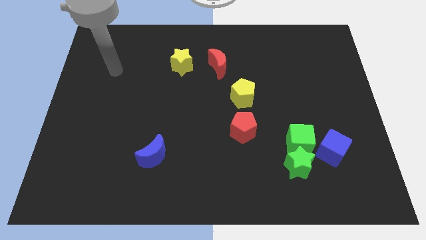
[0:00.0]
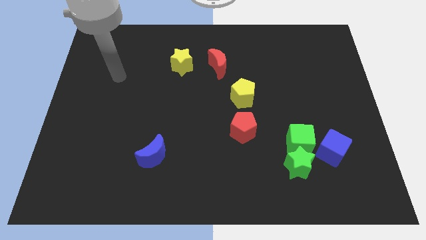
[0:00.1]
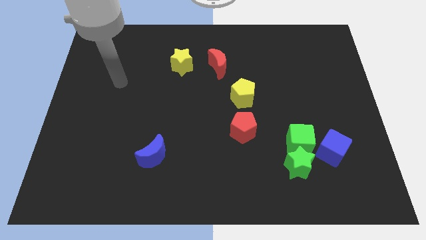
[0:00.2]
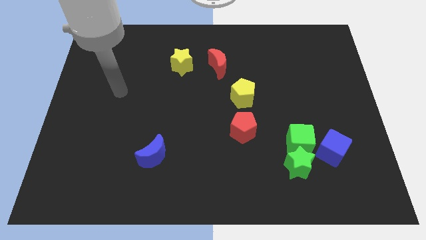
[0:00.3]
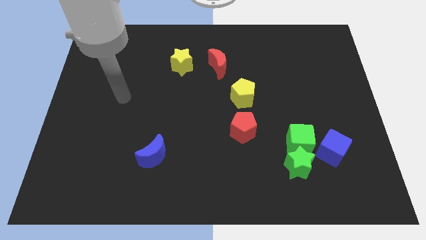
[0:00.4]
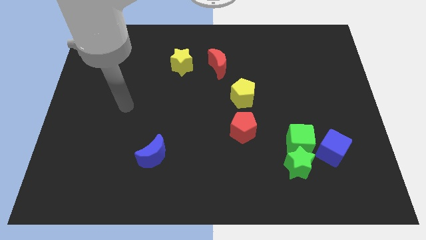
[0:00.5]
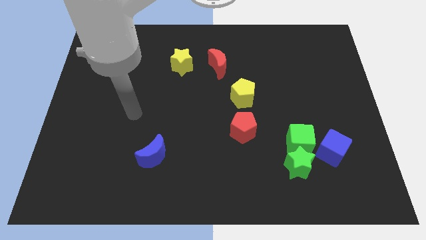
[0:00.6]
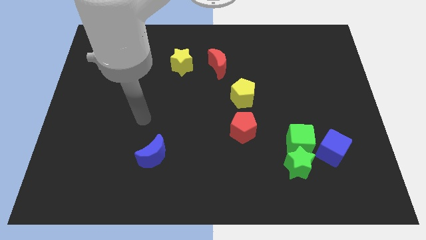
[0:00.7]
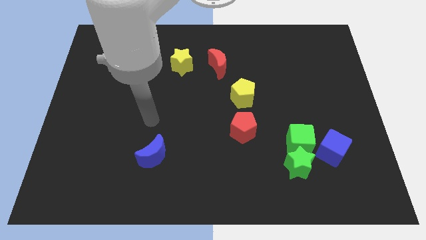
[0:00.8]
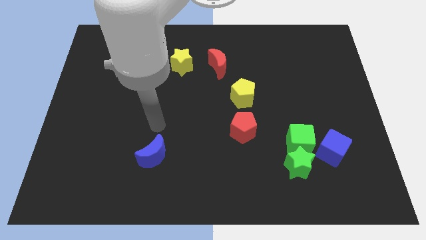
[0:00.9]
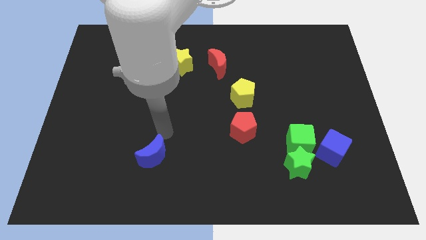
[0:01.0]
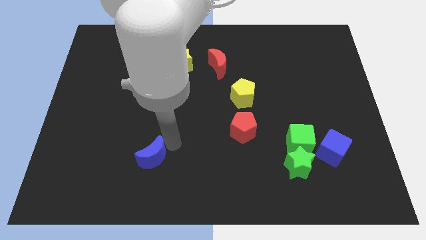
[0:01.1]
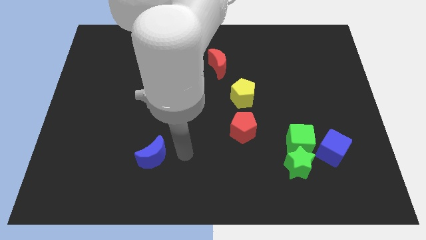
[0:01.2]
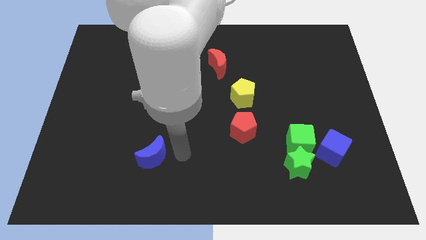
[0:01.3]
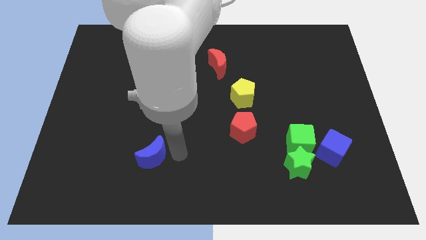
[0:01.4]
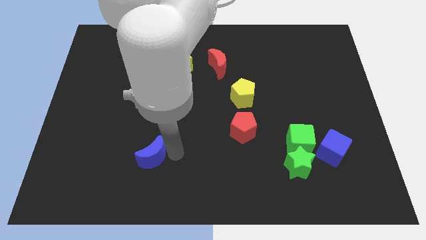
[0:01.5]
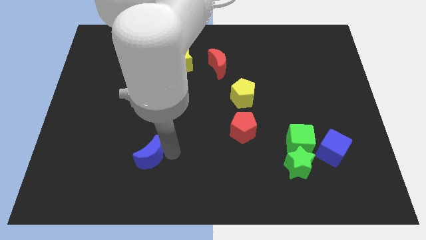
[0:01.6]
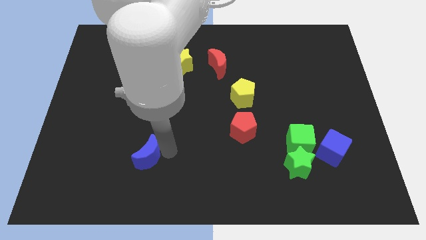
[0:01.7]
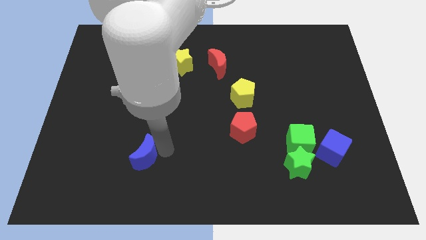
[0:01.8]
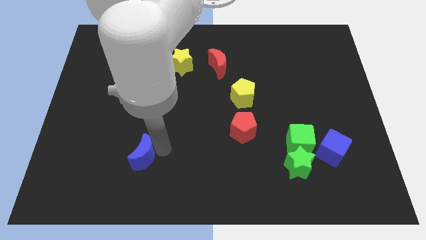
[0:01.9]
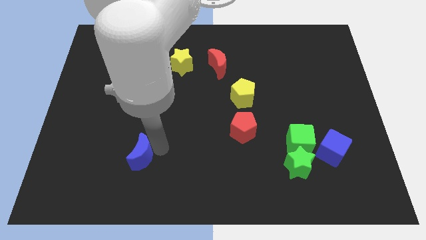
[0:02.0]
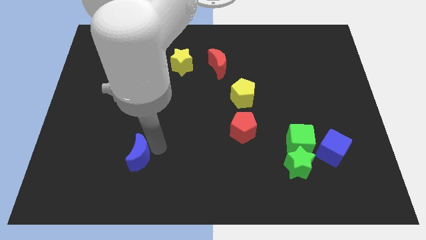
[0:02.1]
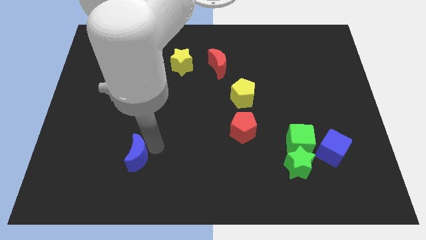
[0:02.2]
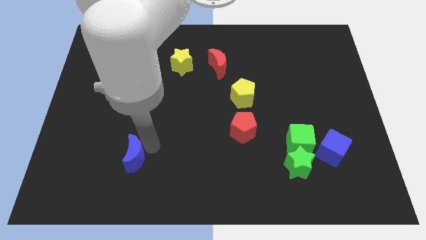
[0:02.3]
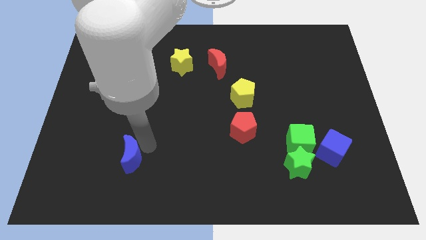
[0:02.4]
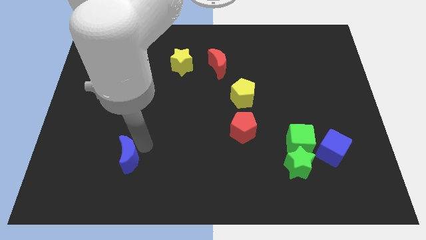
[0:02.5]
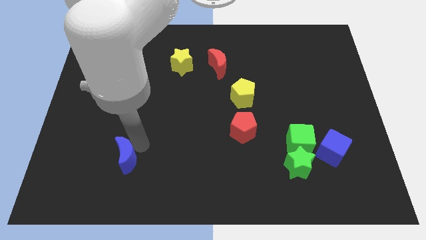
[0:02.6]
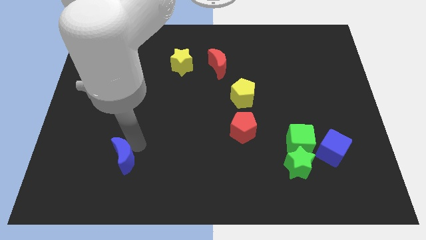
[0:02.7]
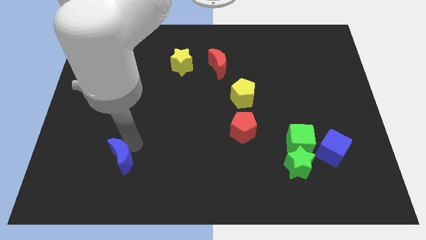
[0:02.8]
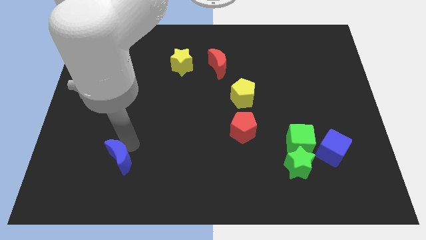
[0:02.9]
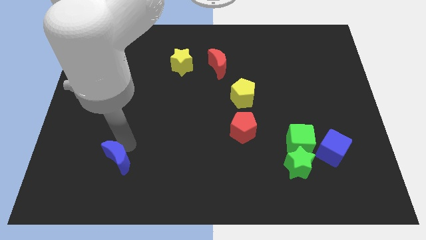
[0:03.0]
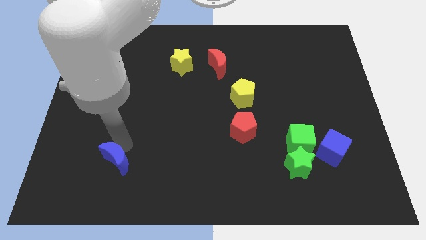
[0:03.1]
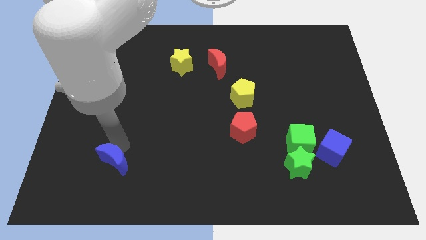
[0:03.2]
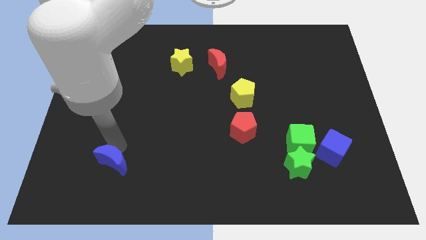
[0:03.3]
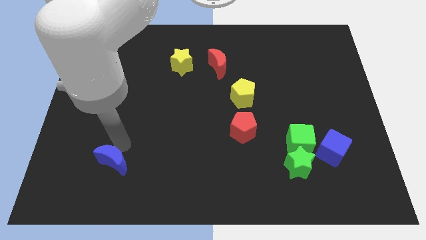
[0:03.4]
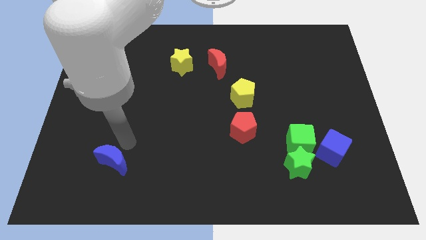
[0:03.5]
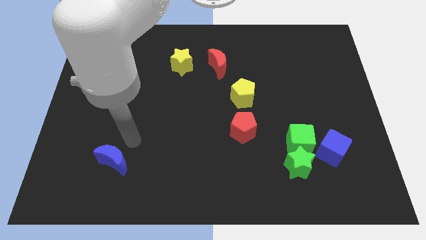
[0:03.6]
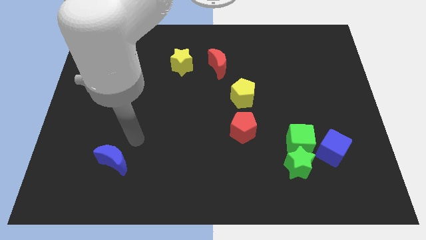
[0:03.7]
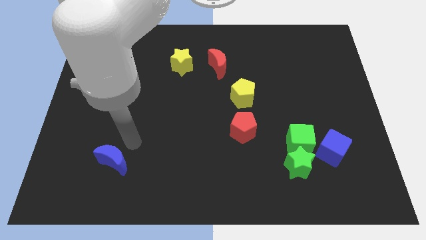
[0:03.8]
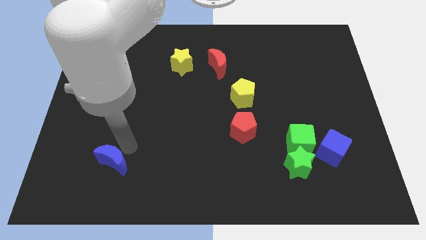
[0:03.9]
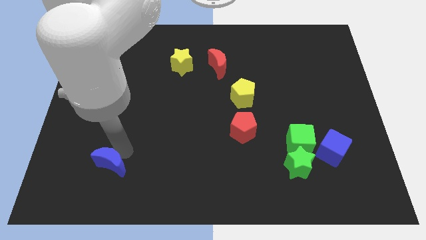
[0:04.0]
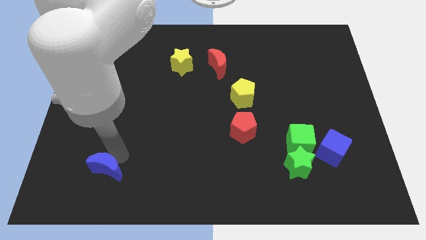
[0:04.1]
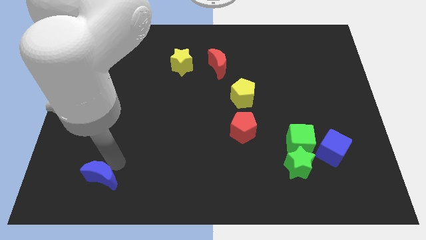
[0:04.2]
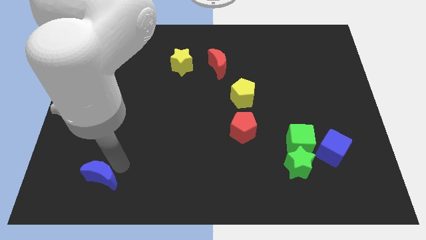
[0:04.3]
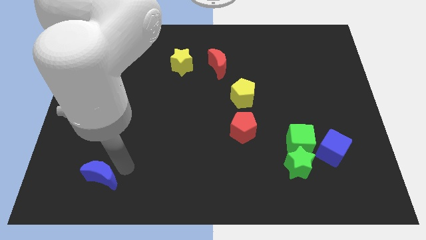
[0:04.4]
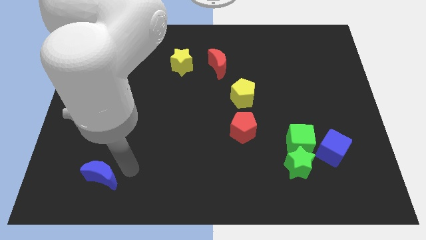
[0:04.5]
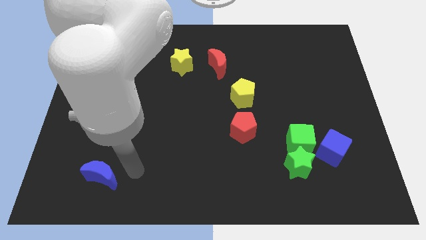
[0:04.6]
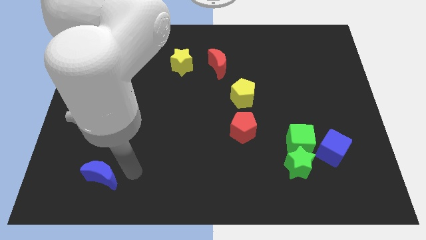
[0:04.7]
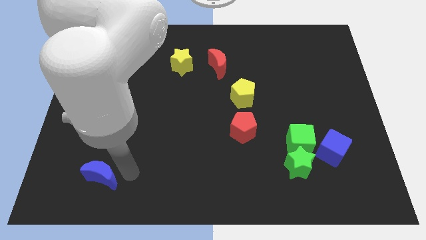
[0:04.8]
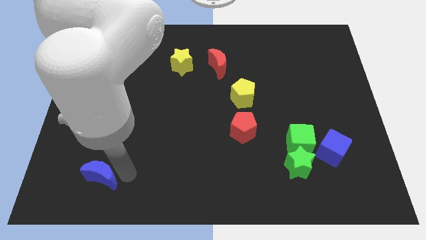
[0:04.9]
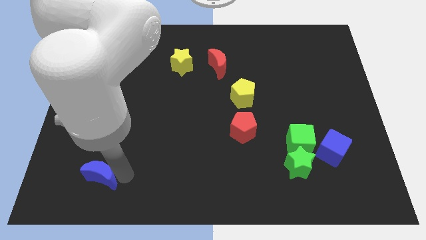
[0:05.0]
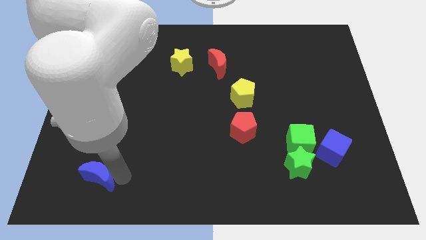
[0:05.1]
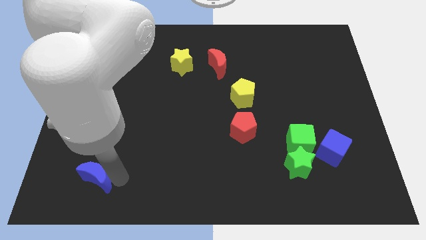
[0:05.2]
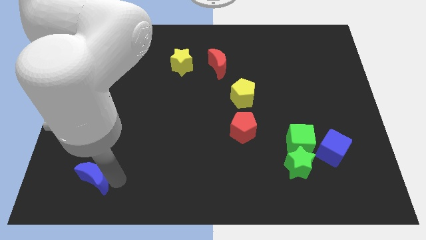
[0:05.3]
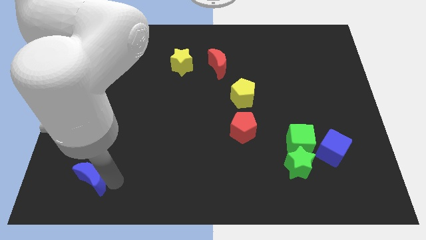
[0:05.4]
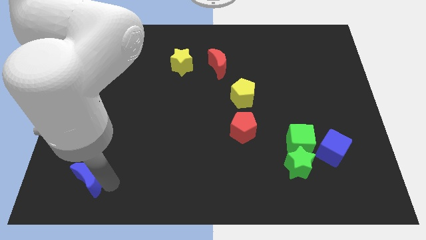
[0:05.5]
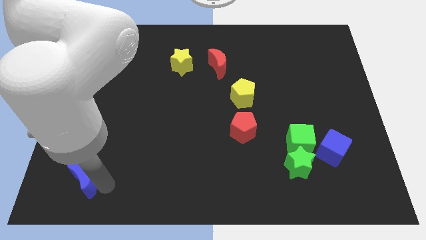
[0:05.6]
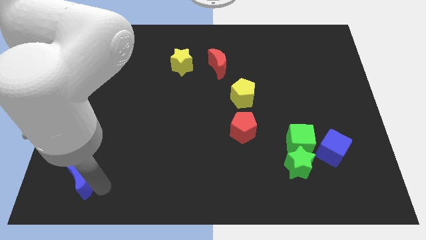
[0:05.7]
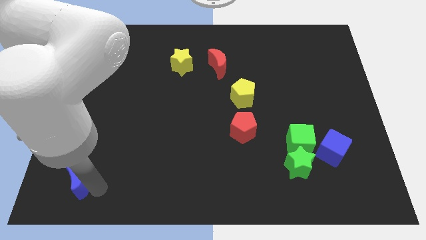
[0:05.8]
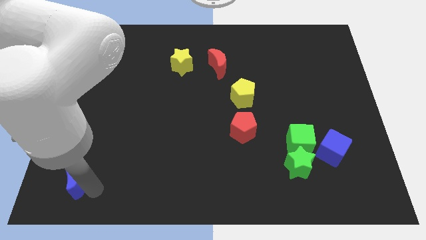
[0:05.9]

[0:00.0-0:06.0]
slide the blue moon to the bottom left corner
